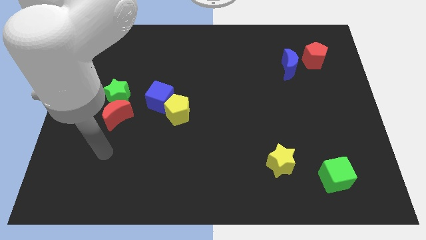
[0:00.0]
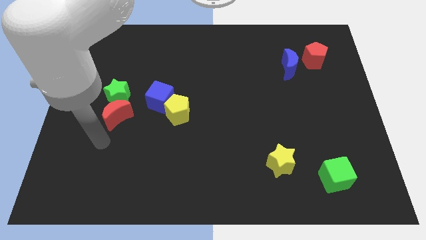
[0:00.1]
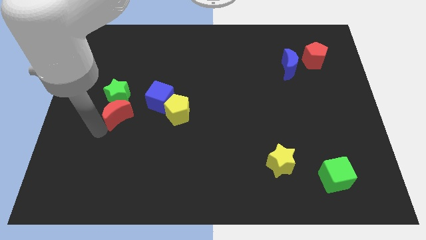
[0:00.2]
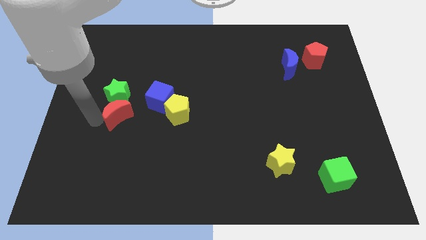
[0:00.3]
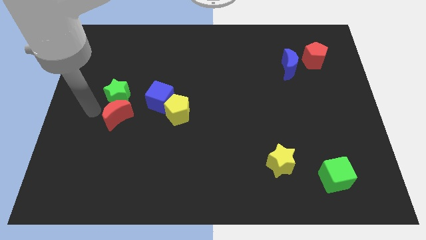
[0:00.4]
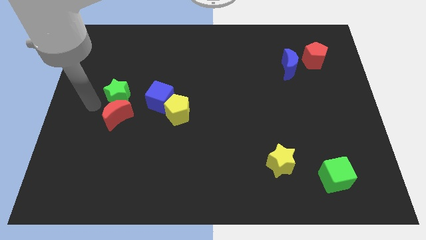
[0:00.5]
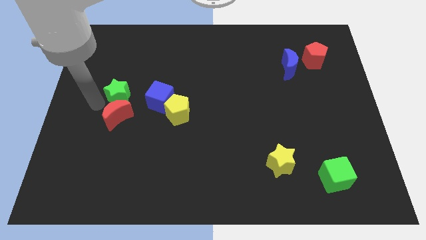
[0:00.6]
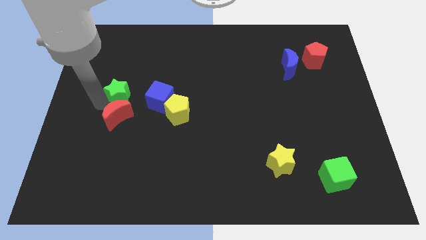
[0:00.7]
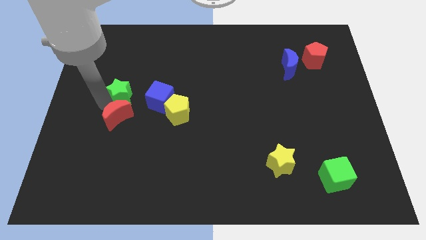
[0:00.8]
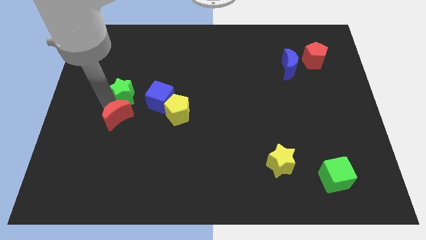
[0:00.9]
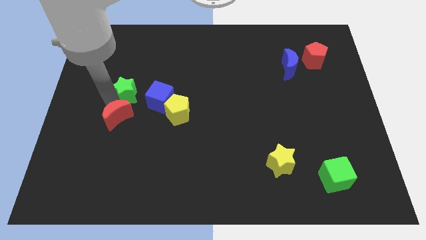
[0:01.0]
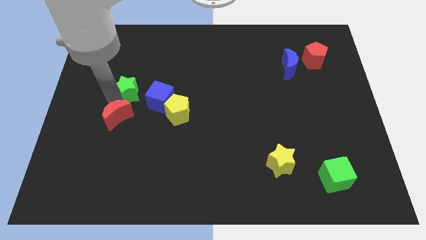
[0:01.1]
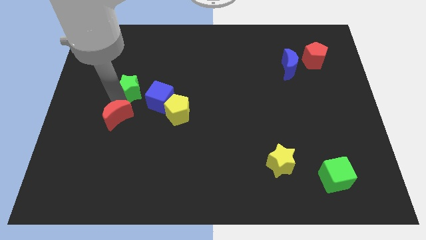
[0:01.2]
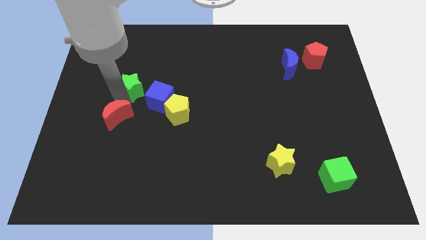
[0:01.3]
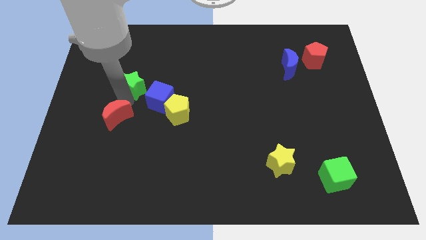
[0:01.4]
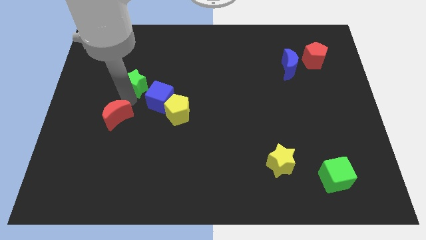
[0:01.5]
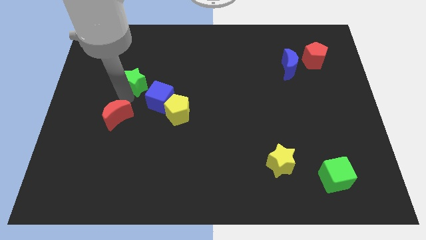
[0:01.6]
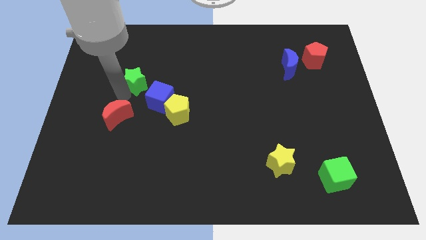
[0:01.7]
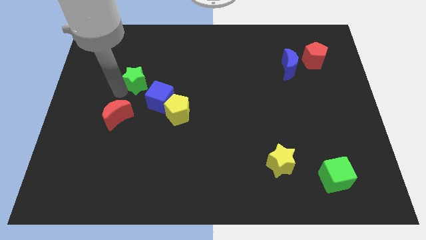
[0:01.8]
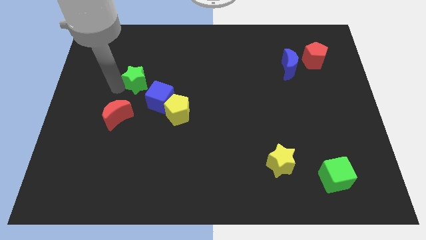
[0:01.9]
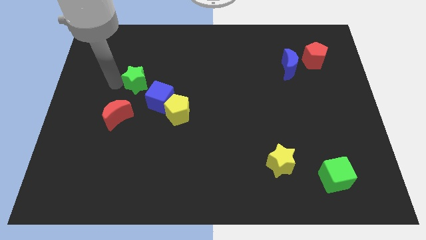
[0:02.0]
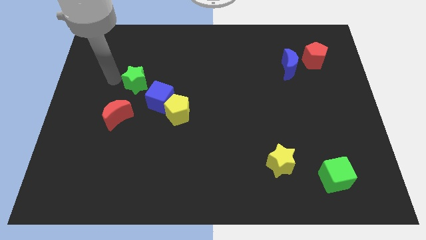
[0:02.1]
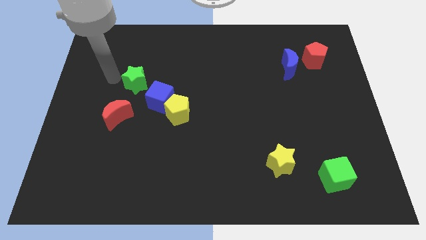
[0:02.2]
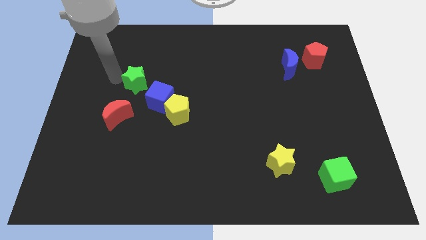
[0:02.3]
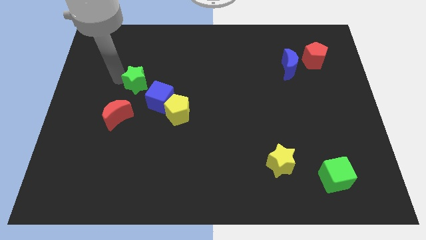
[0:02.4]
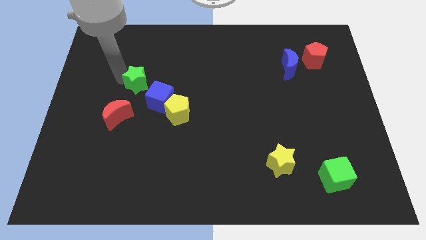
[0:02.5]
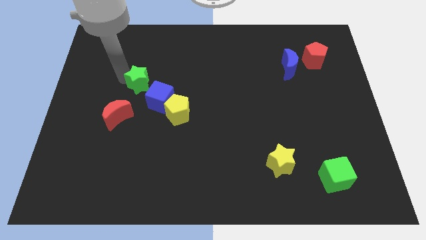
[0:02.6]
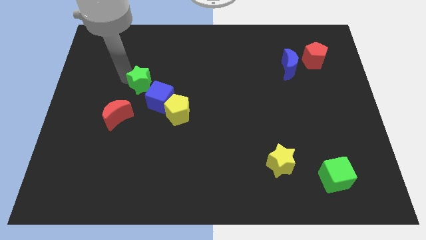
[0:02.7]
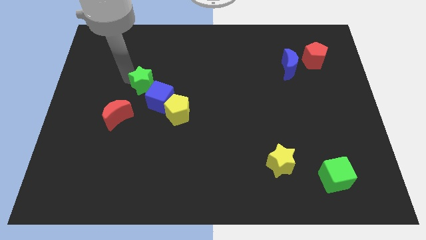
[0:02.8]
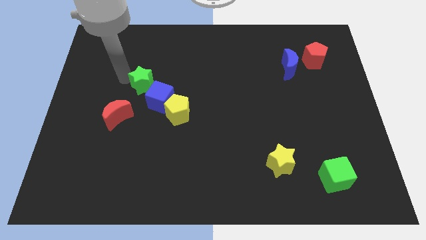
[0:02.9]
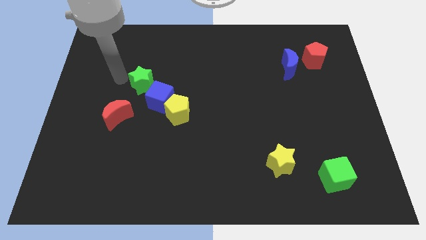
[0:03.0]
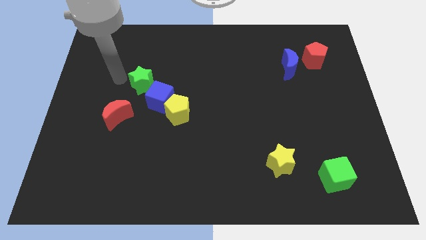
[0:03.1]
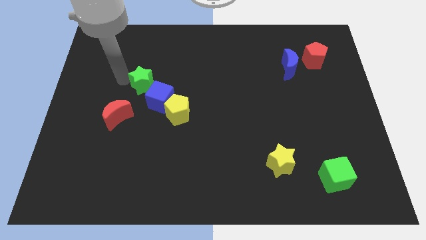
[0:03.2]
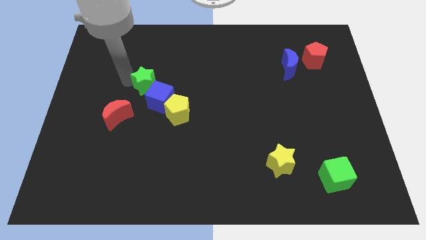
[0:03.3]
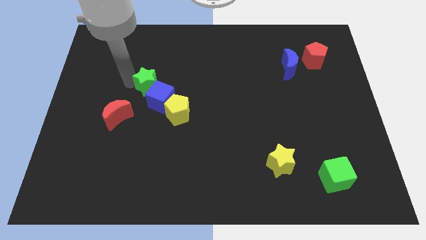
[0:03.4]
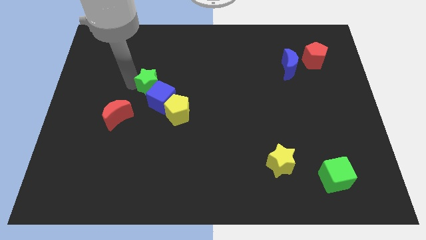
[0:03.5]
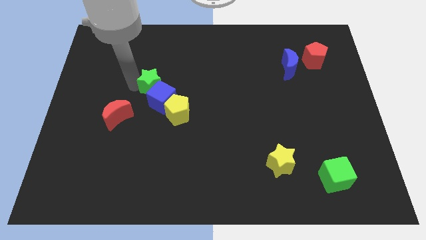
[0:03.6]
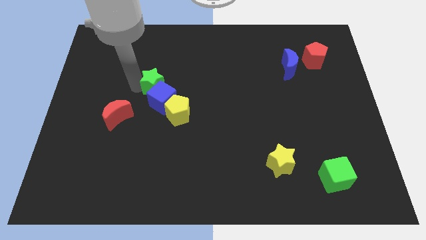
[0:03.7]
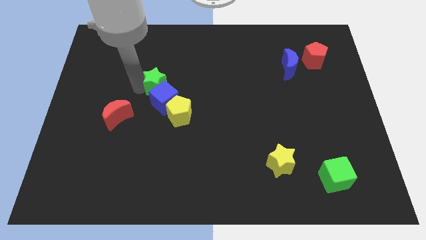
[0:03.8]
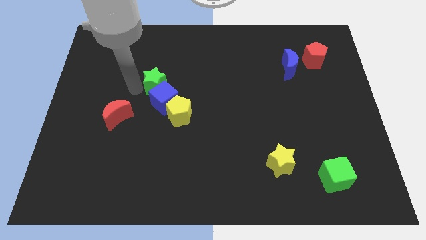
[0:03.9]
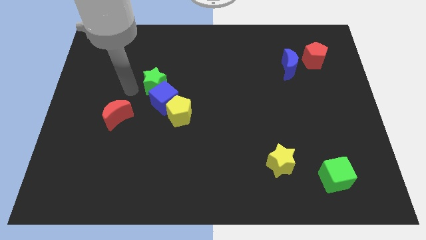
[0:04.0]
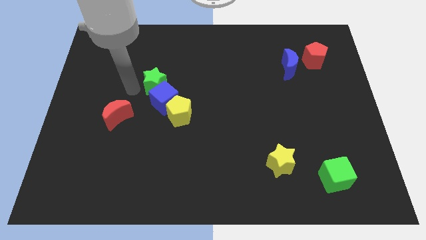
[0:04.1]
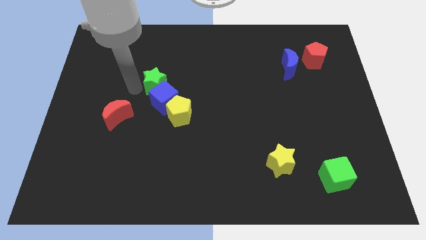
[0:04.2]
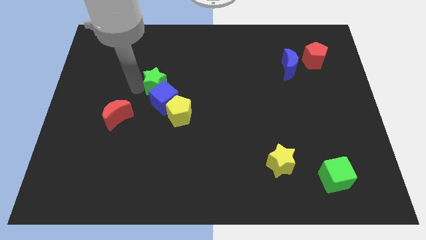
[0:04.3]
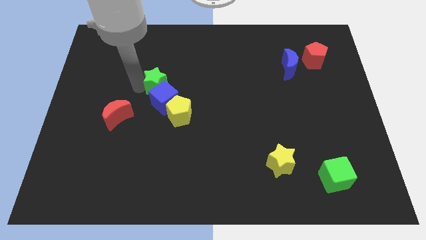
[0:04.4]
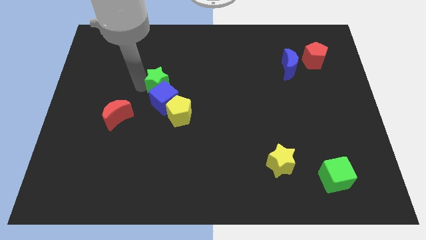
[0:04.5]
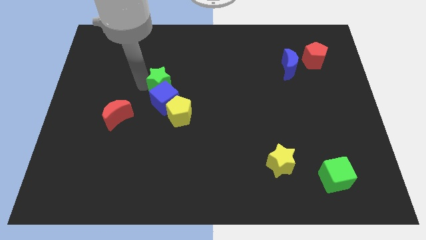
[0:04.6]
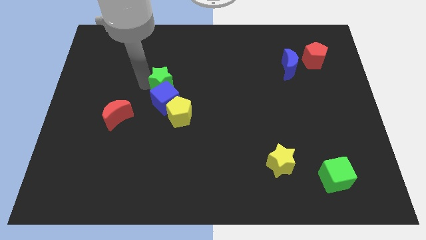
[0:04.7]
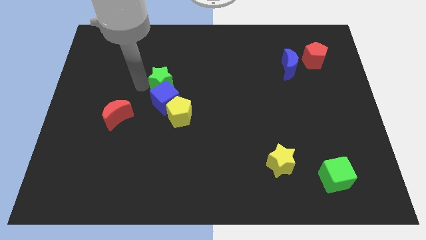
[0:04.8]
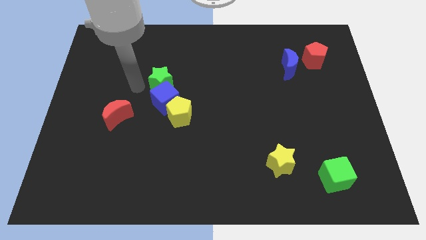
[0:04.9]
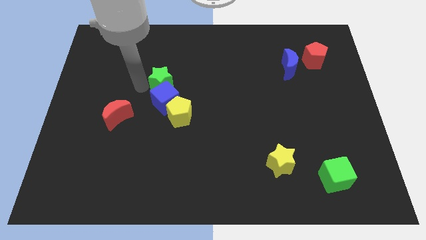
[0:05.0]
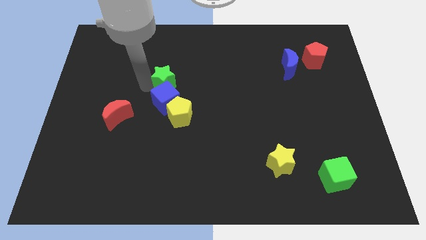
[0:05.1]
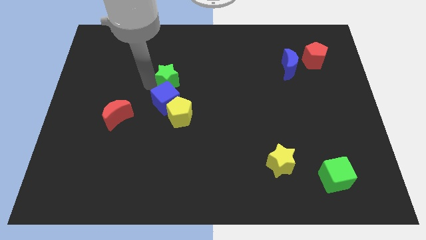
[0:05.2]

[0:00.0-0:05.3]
slide the green star to the middle

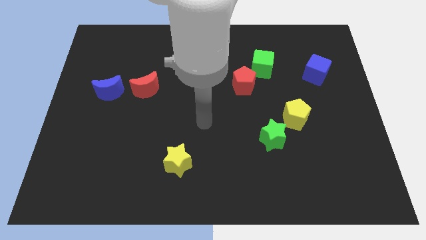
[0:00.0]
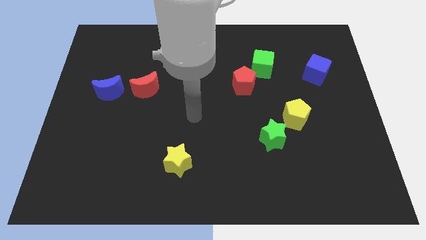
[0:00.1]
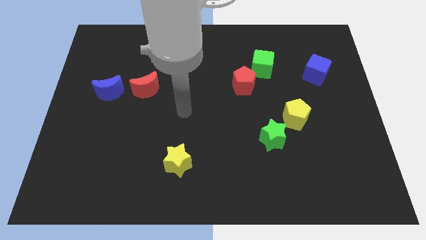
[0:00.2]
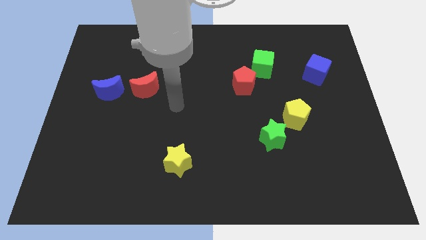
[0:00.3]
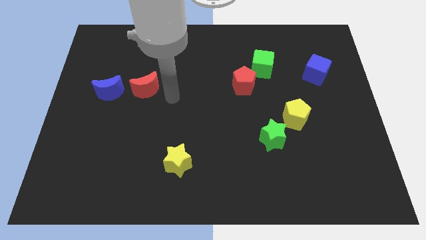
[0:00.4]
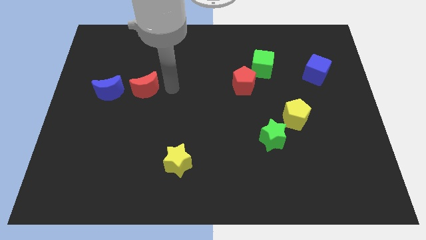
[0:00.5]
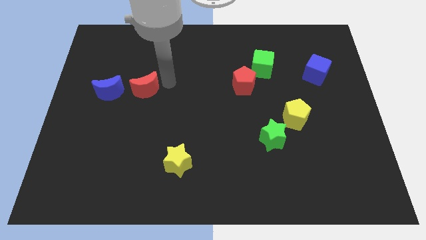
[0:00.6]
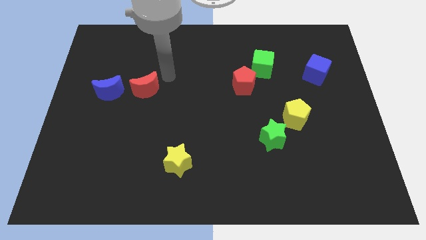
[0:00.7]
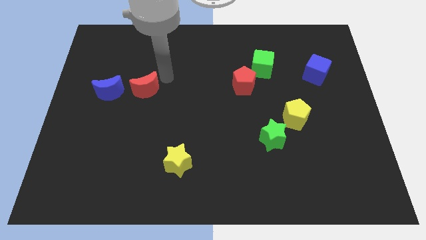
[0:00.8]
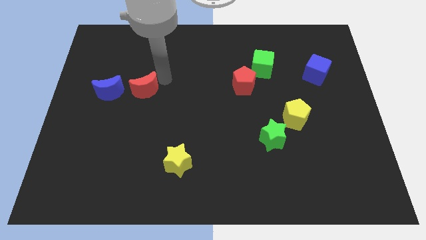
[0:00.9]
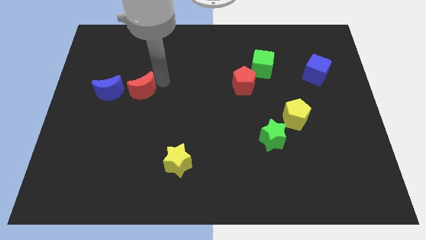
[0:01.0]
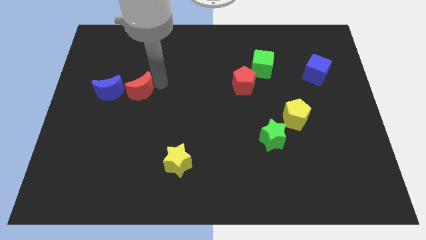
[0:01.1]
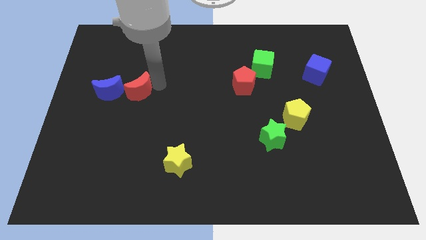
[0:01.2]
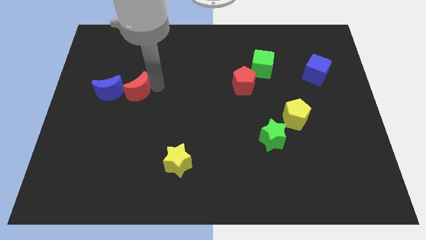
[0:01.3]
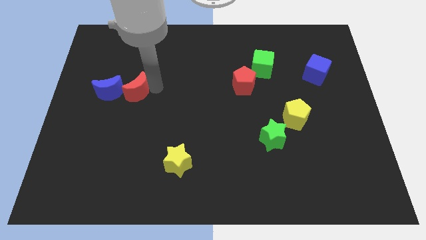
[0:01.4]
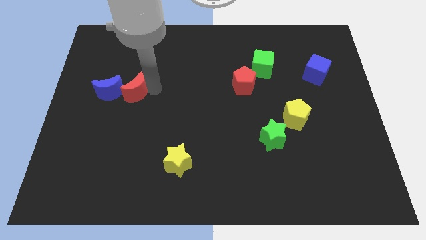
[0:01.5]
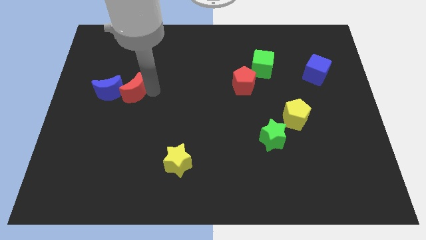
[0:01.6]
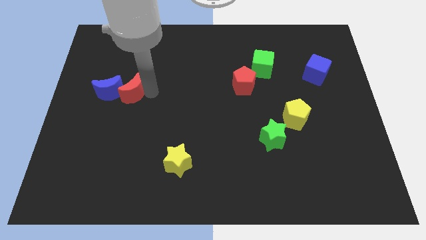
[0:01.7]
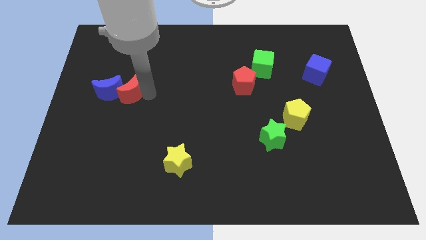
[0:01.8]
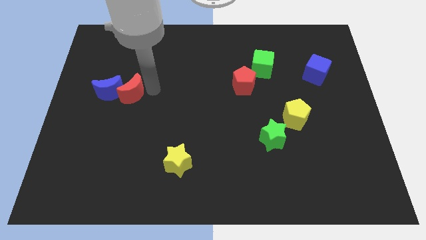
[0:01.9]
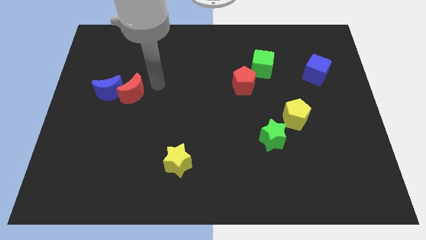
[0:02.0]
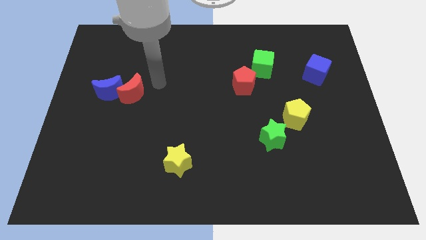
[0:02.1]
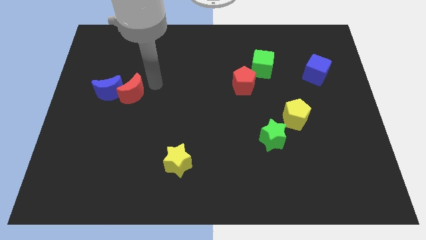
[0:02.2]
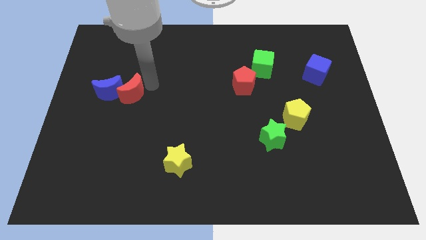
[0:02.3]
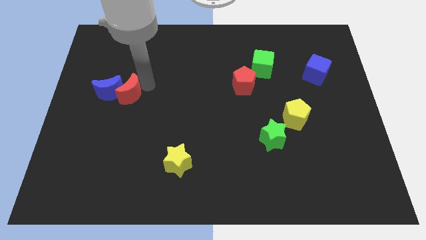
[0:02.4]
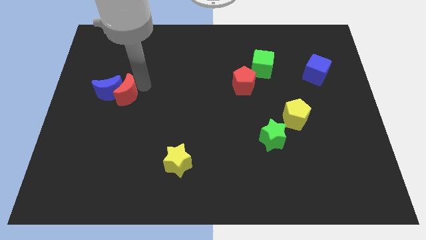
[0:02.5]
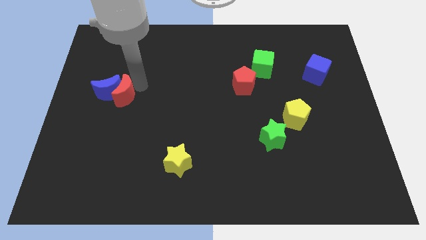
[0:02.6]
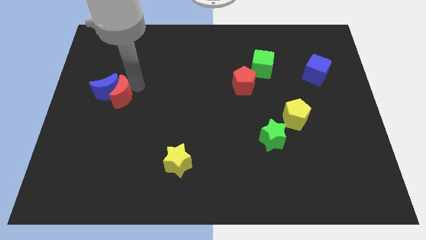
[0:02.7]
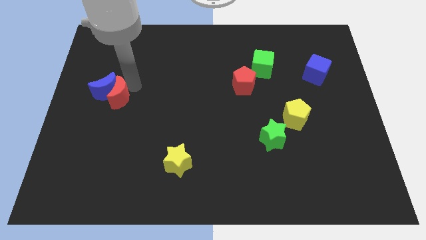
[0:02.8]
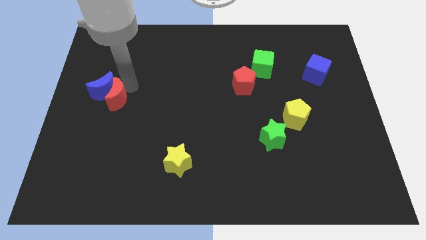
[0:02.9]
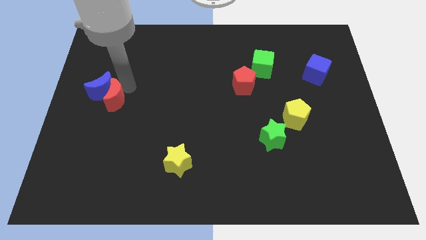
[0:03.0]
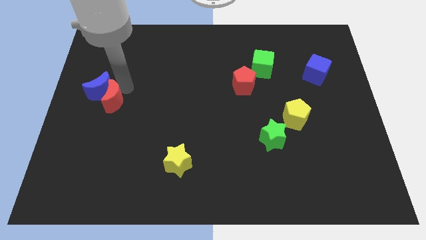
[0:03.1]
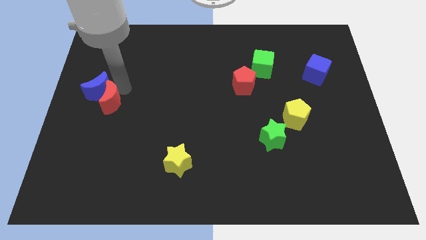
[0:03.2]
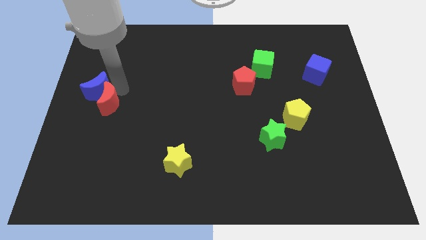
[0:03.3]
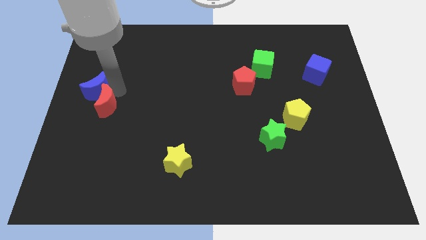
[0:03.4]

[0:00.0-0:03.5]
slide the red moon to the center left
